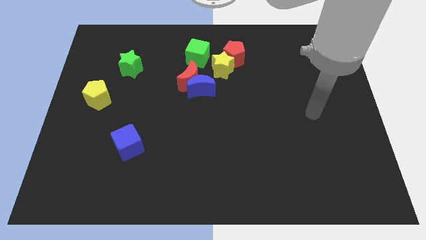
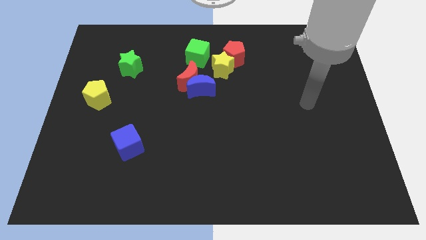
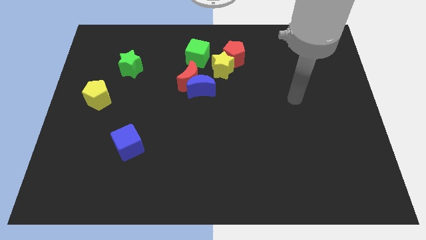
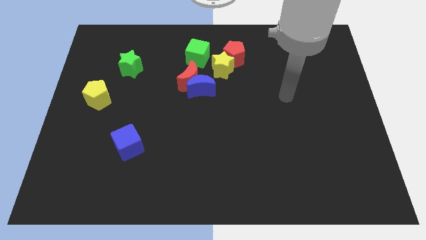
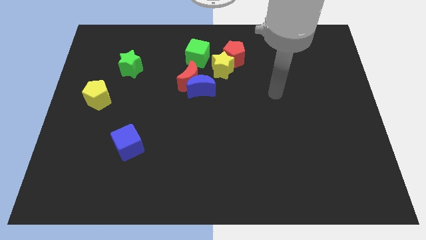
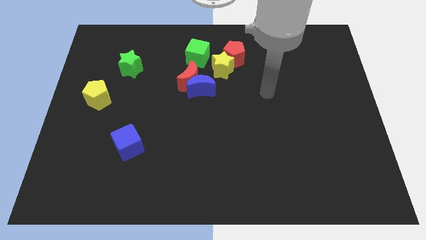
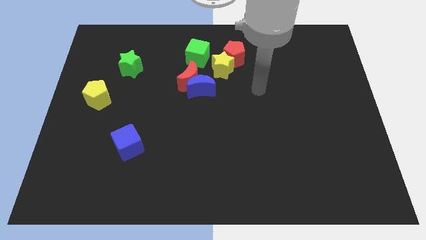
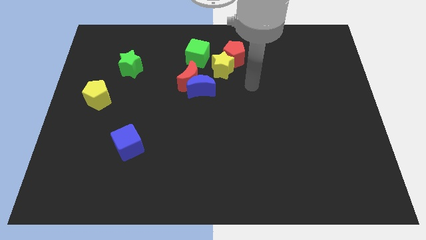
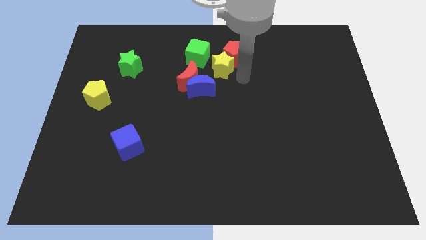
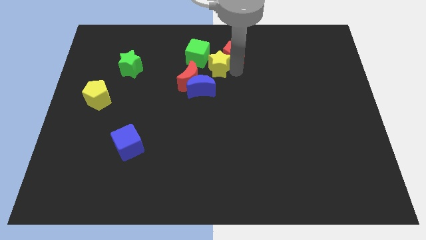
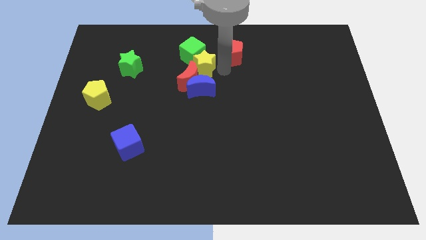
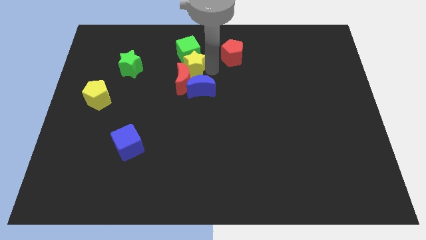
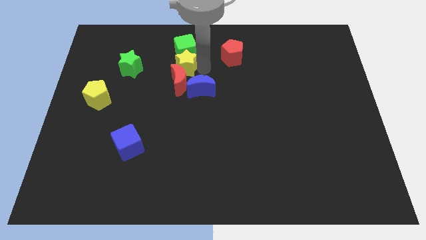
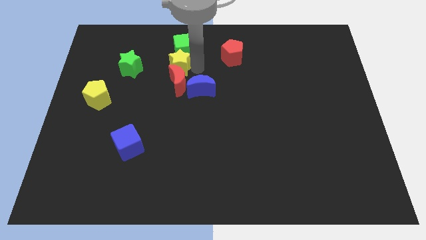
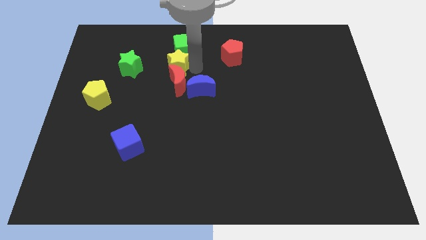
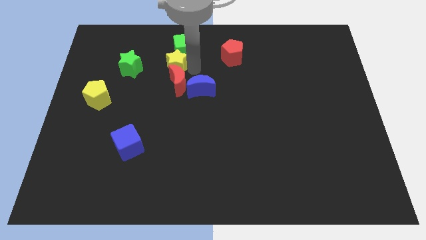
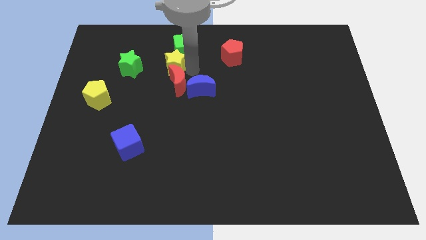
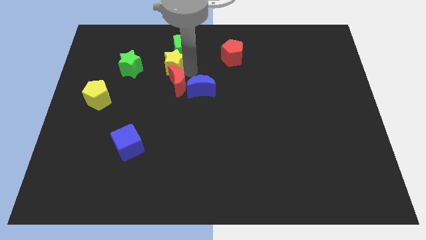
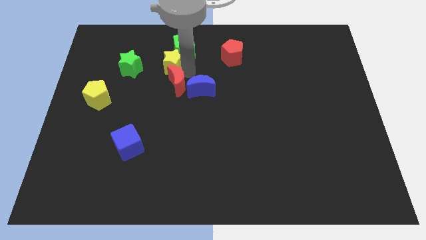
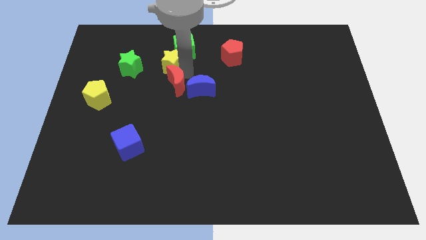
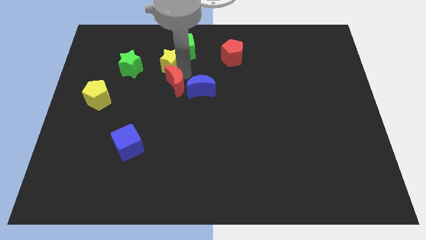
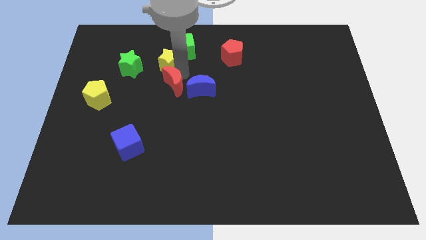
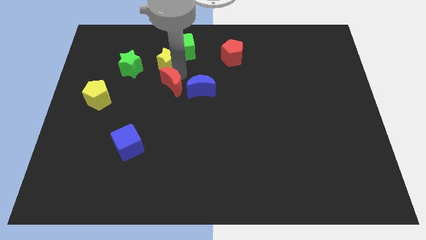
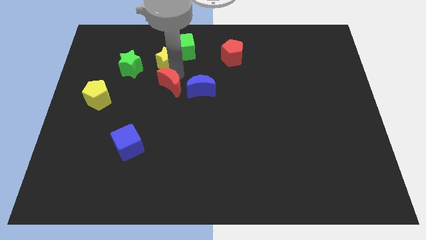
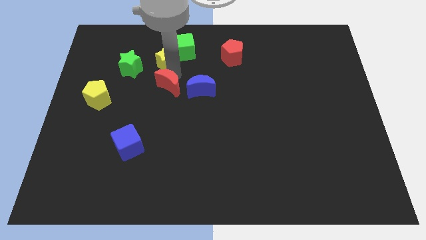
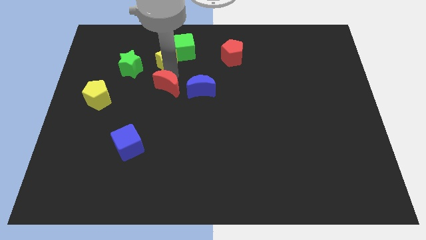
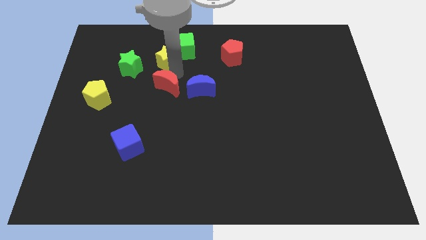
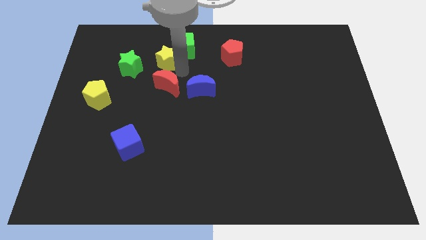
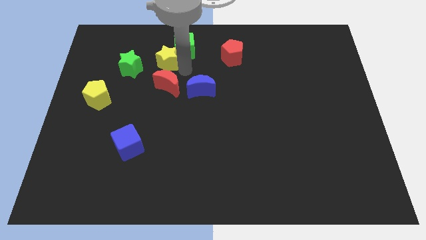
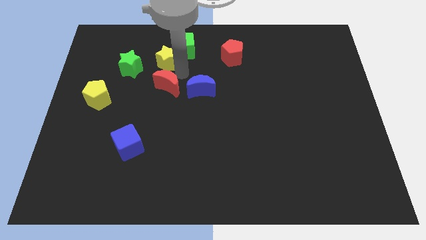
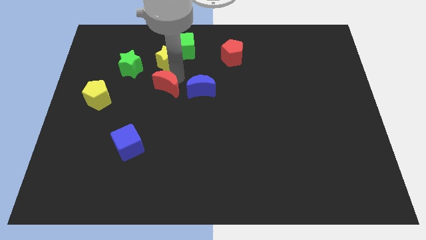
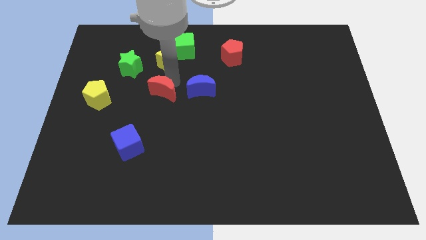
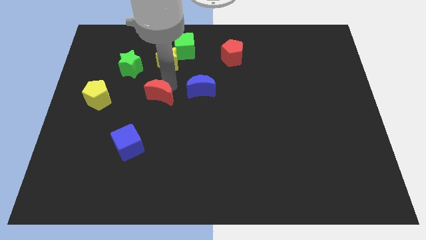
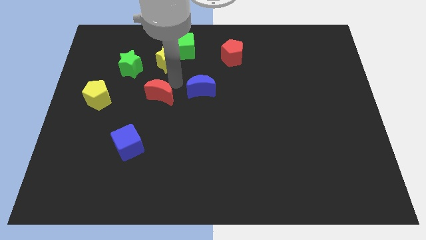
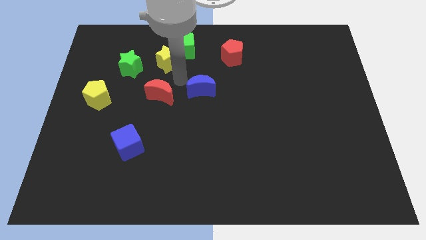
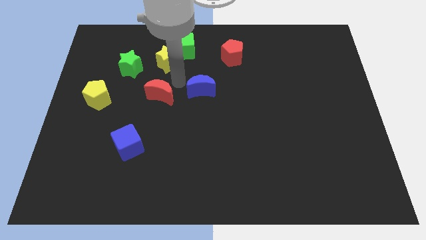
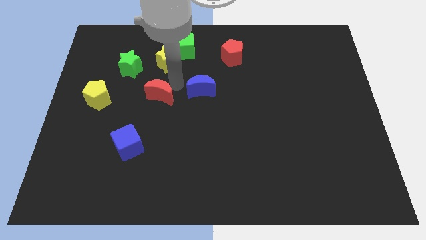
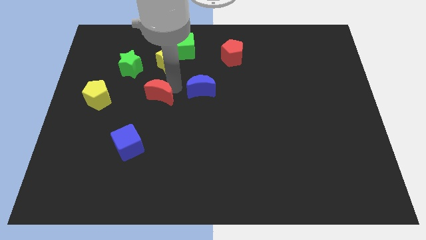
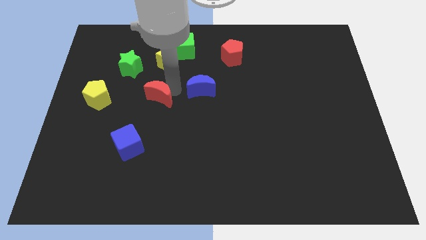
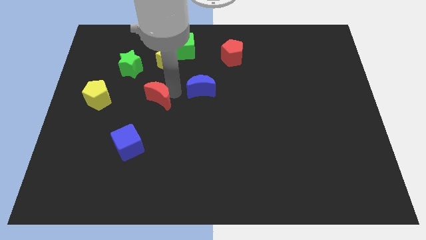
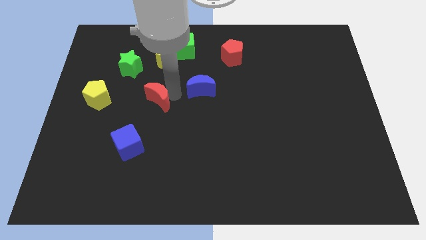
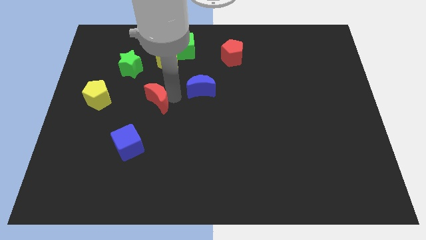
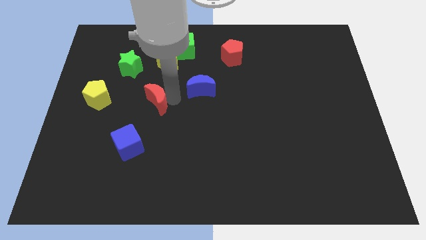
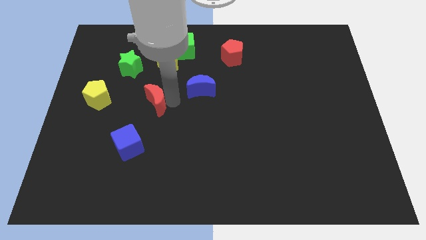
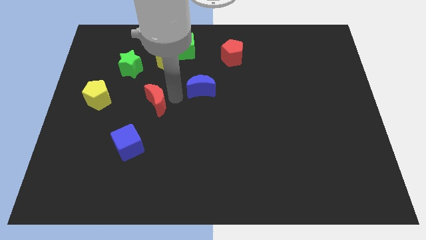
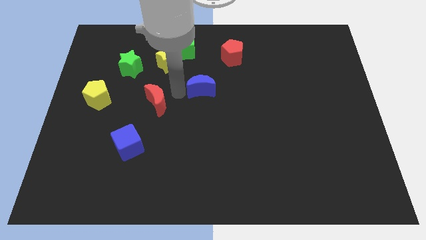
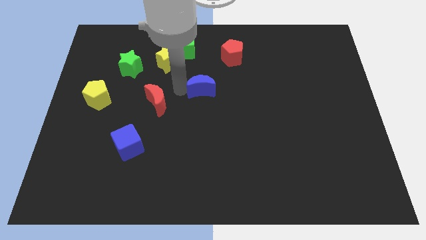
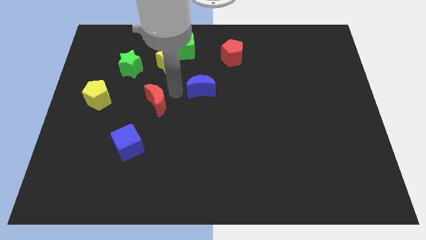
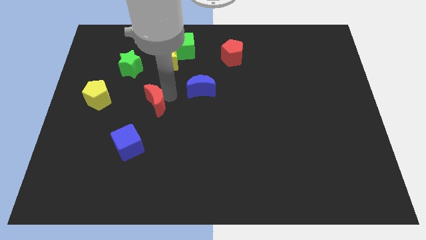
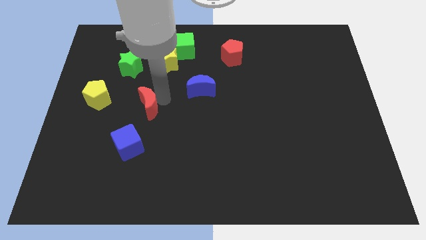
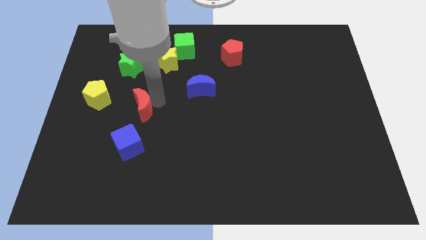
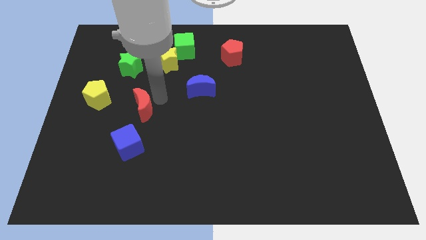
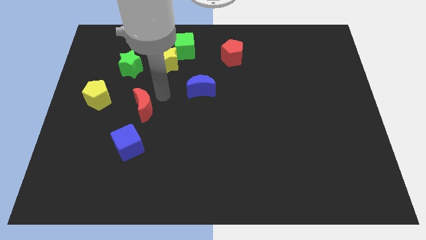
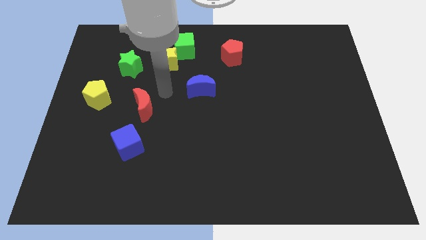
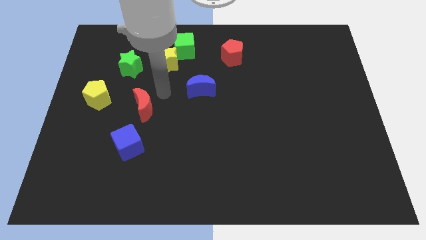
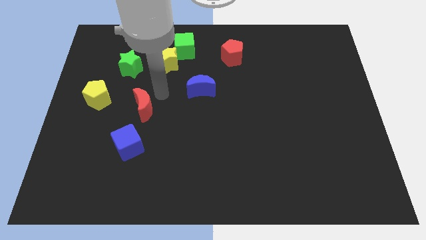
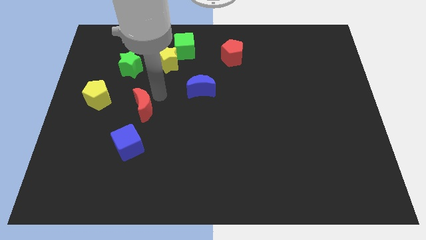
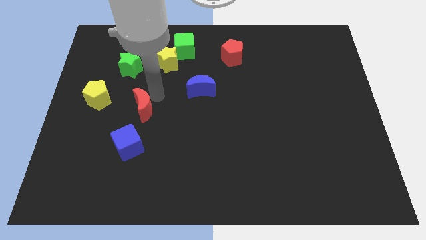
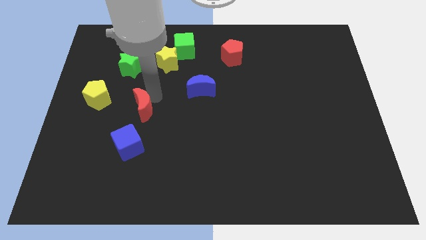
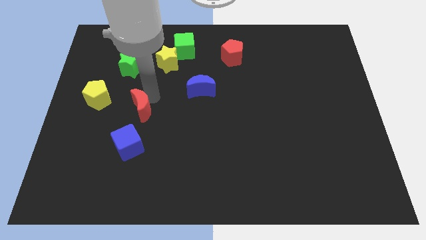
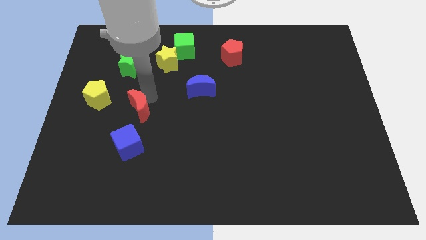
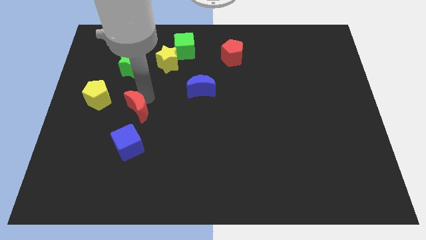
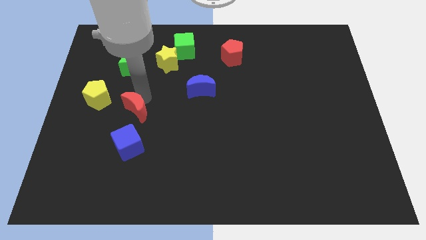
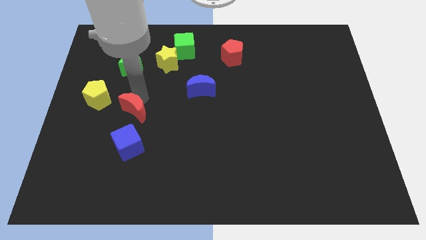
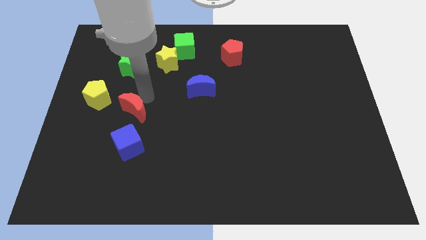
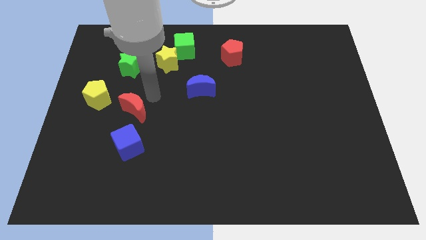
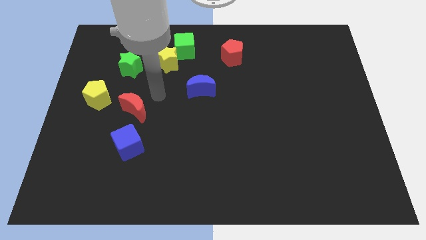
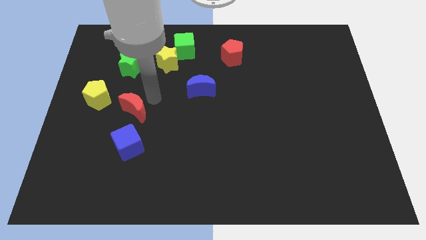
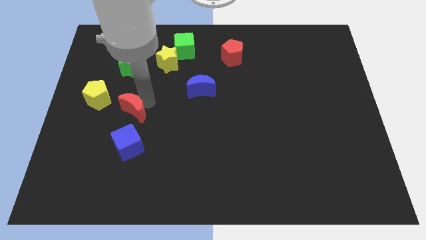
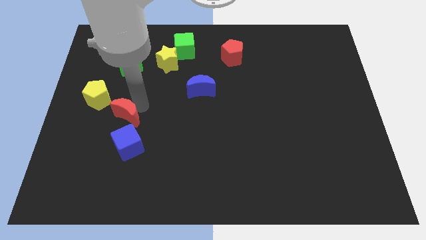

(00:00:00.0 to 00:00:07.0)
move the red moon to the top left side of the blue cube

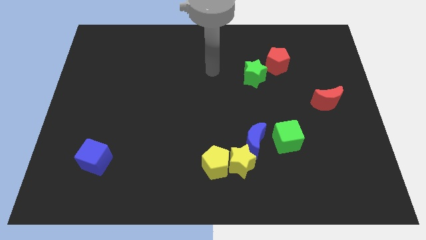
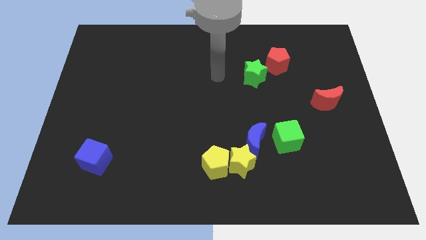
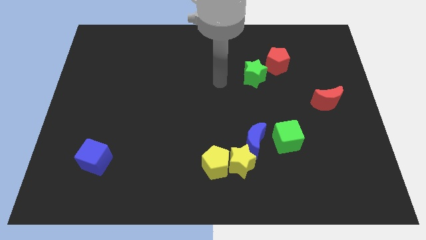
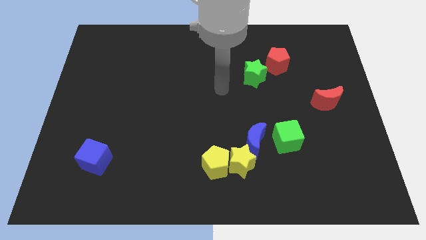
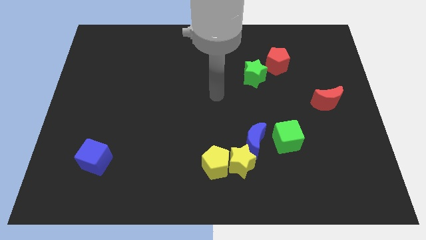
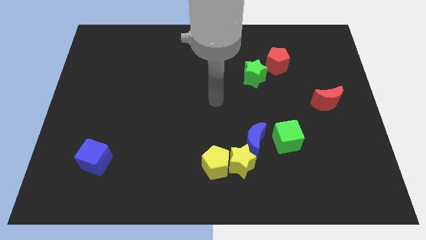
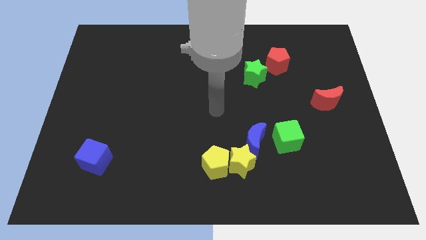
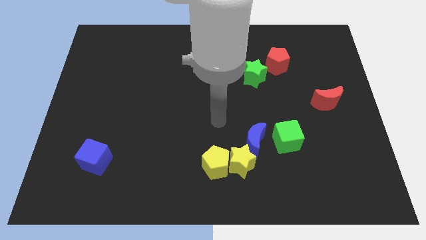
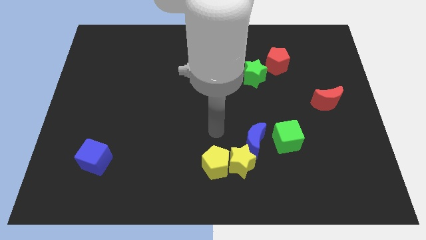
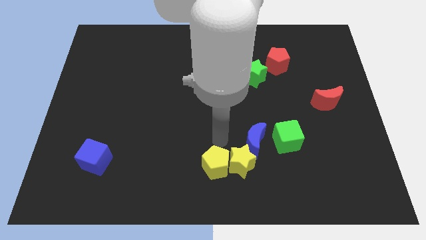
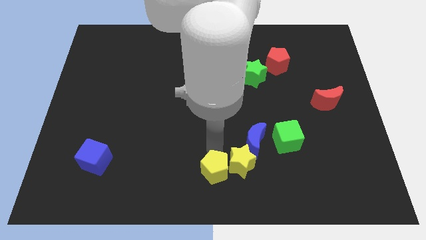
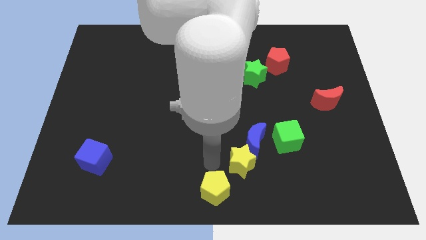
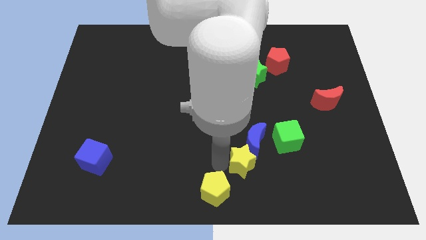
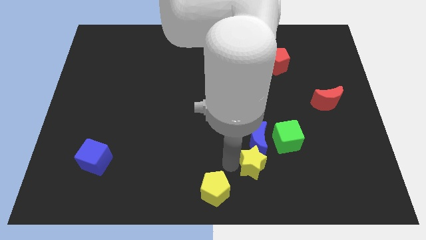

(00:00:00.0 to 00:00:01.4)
move the yellow star to the bottom right of the blue moon
